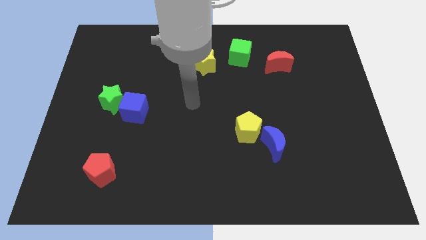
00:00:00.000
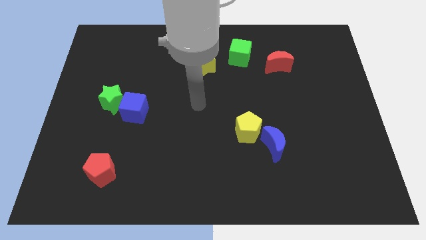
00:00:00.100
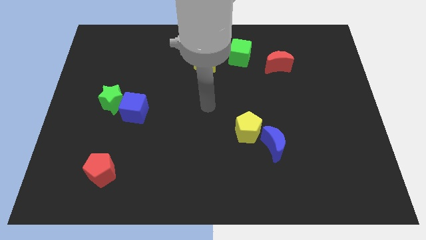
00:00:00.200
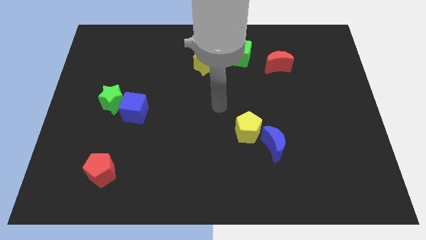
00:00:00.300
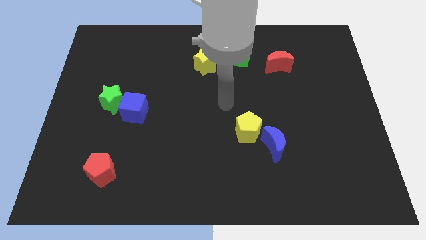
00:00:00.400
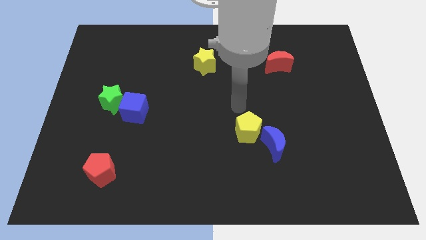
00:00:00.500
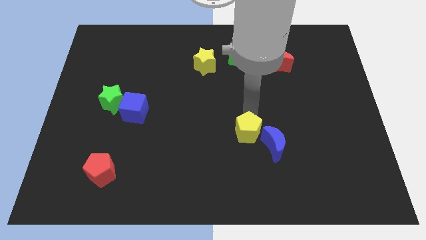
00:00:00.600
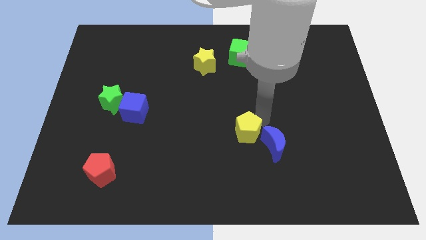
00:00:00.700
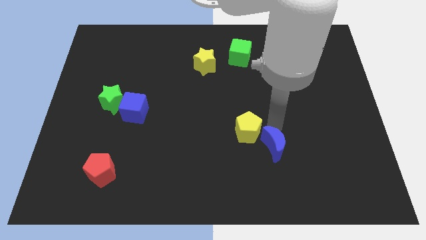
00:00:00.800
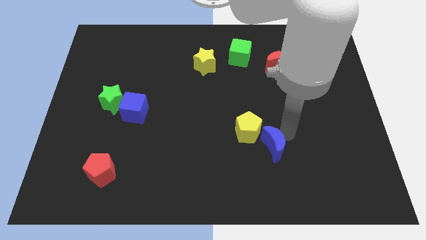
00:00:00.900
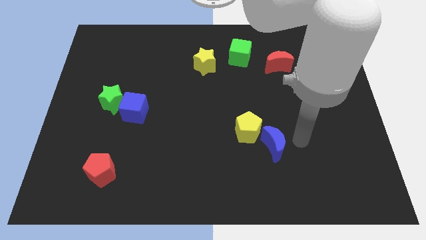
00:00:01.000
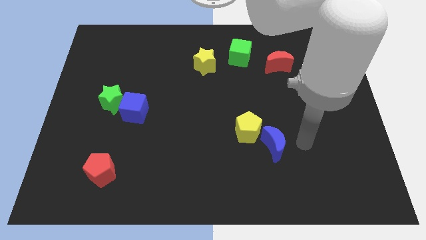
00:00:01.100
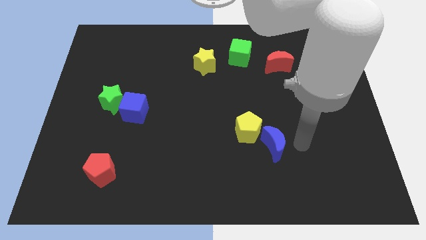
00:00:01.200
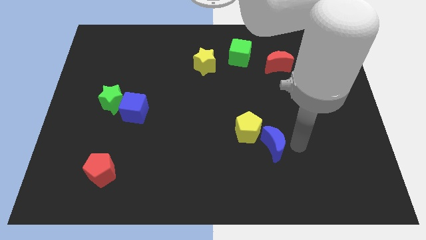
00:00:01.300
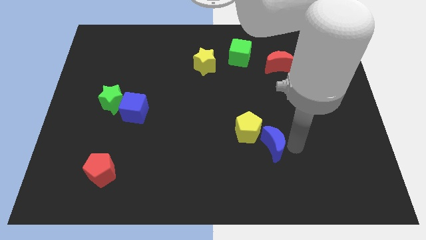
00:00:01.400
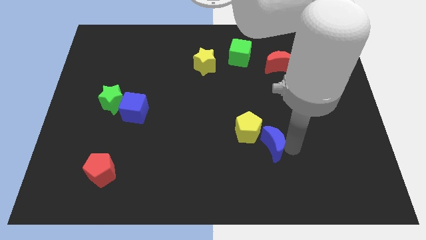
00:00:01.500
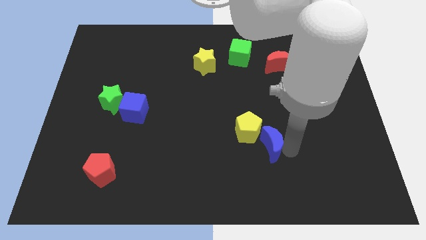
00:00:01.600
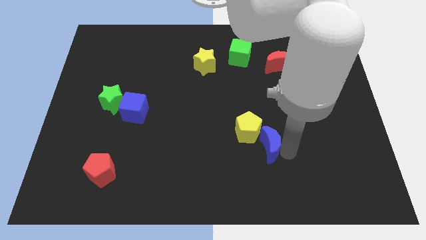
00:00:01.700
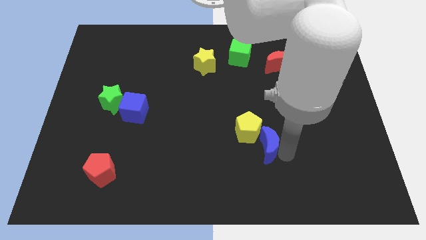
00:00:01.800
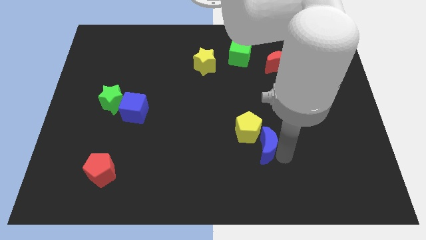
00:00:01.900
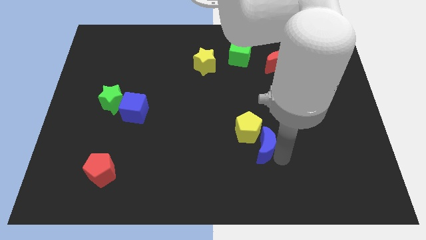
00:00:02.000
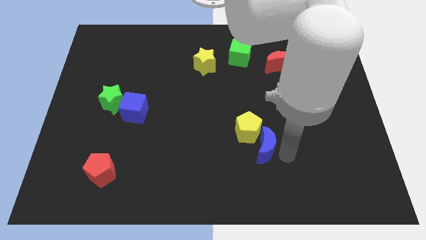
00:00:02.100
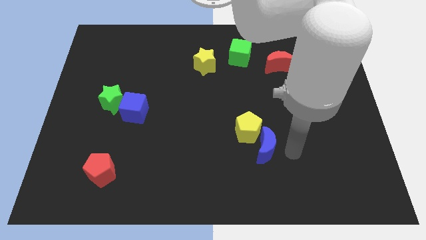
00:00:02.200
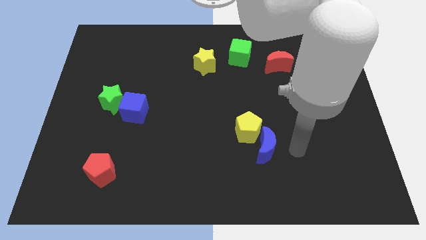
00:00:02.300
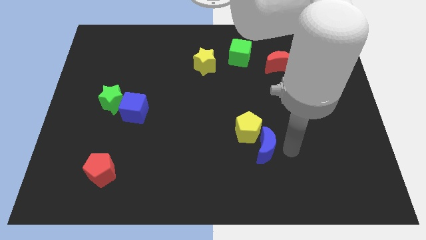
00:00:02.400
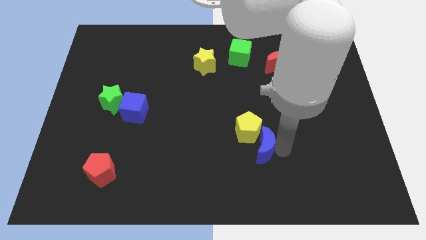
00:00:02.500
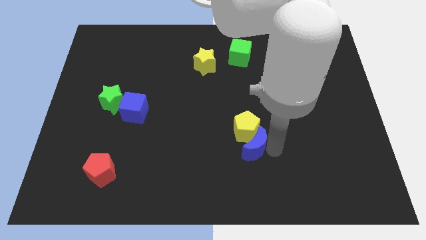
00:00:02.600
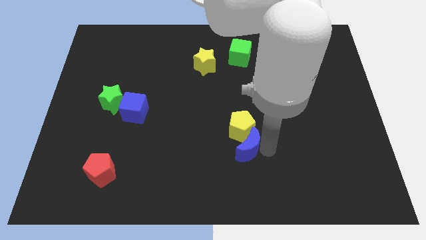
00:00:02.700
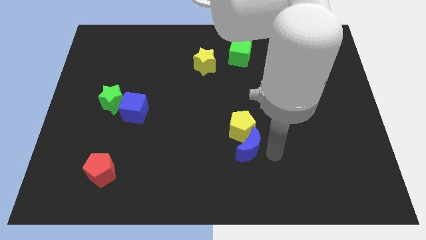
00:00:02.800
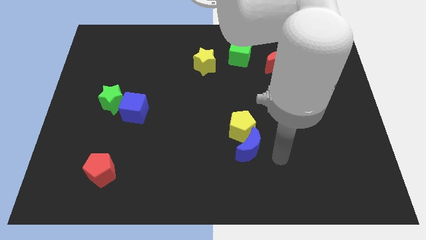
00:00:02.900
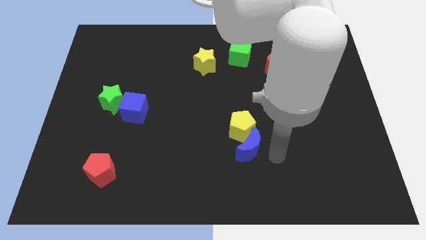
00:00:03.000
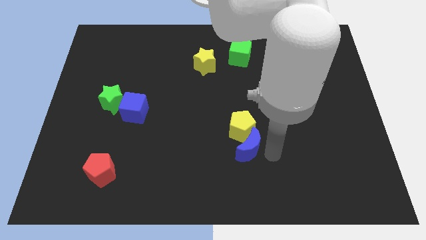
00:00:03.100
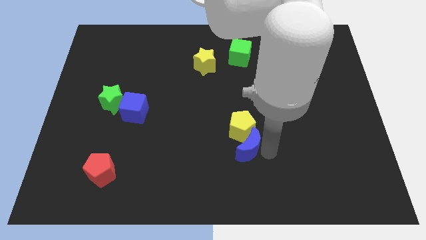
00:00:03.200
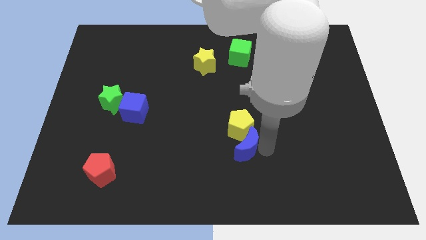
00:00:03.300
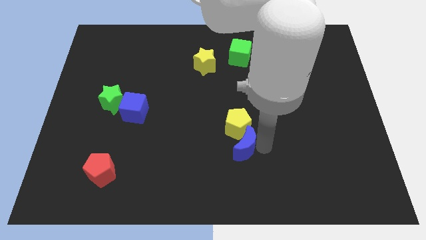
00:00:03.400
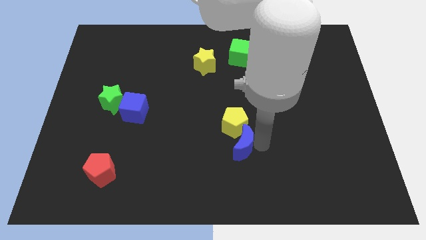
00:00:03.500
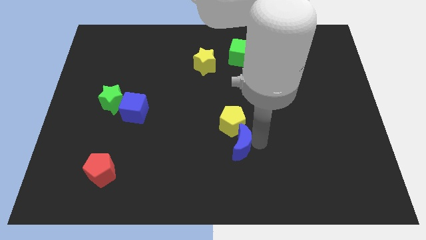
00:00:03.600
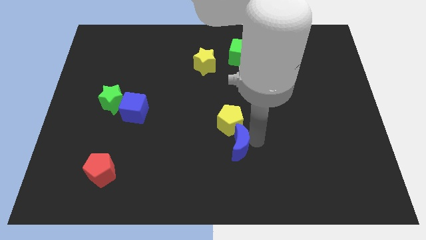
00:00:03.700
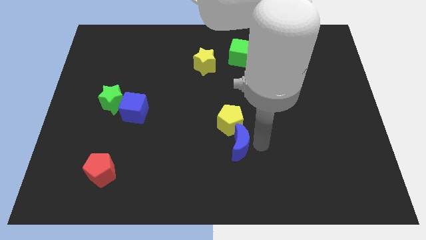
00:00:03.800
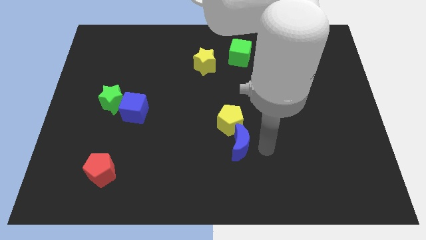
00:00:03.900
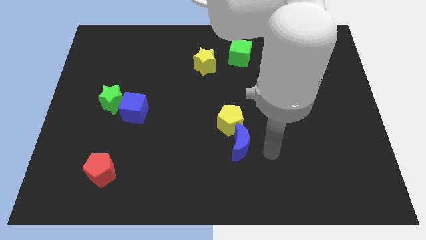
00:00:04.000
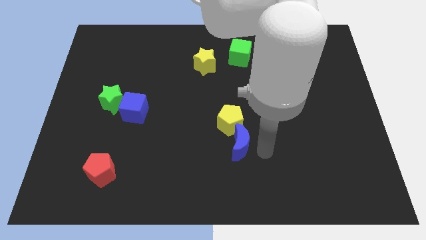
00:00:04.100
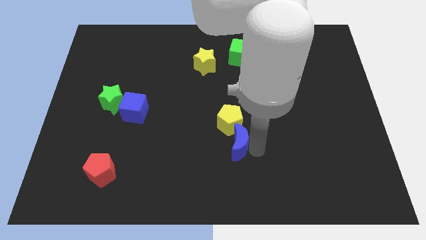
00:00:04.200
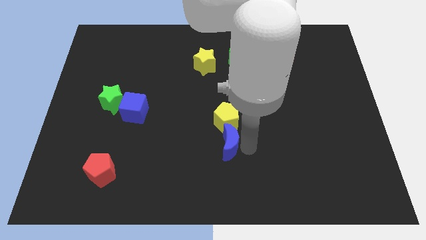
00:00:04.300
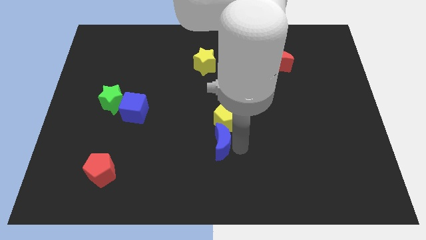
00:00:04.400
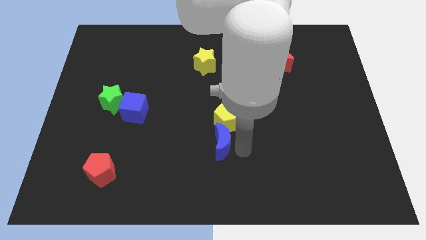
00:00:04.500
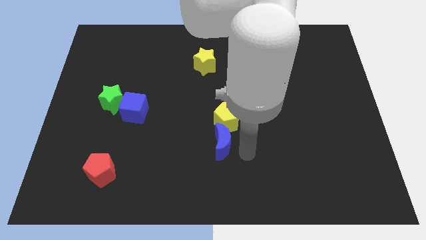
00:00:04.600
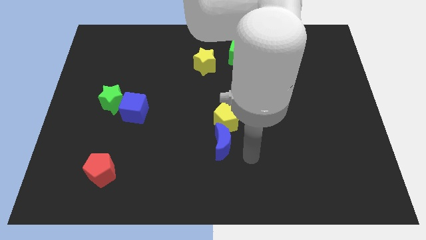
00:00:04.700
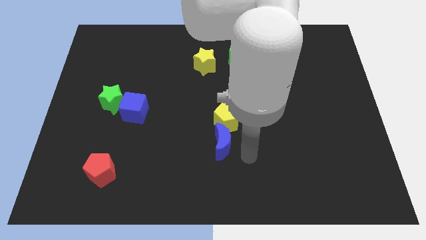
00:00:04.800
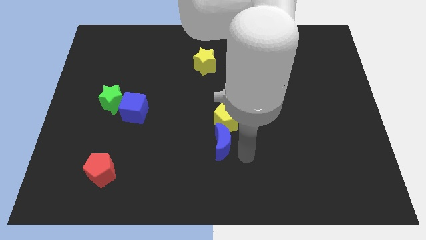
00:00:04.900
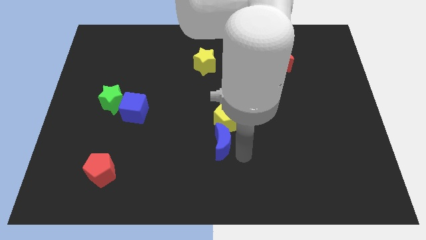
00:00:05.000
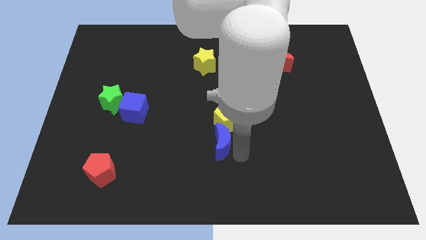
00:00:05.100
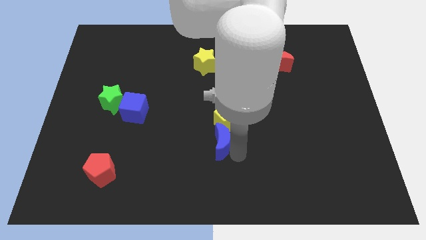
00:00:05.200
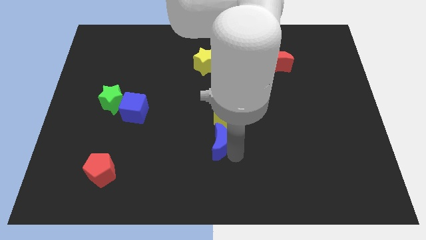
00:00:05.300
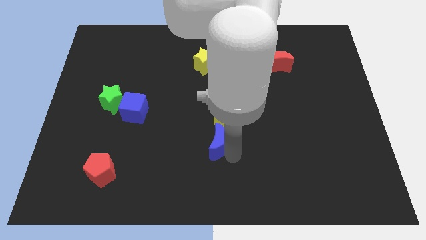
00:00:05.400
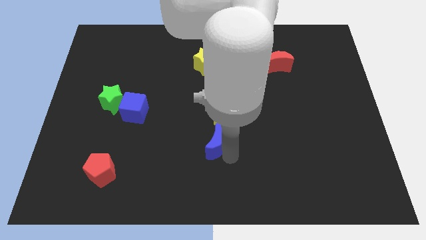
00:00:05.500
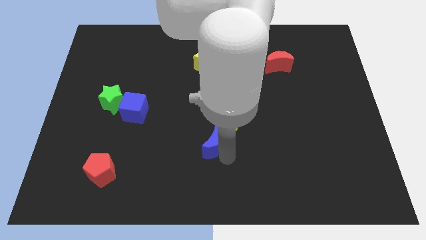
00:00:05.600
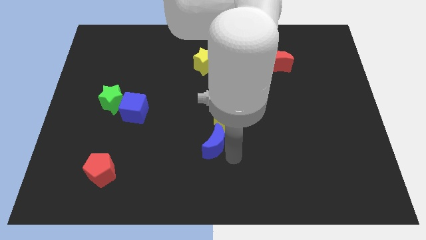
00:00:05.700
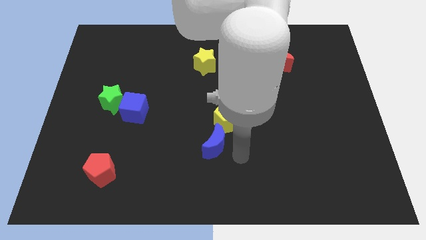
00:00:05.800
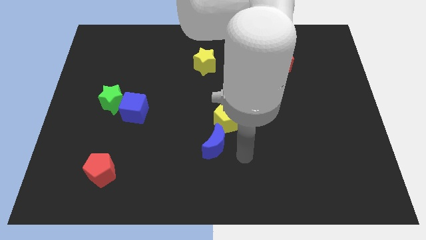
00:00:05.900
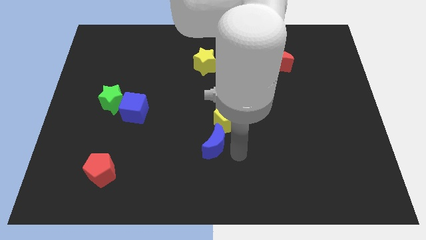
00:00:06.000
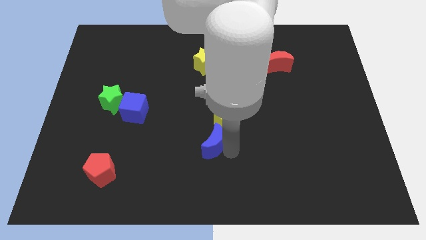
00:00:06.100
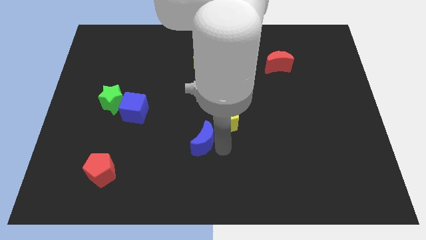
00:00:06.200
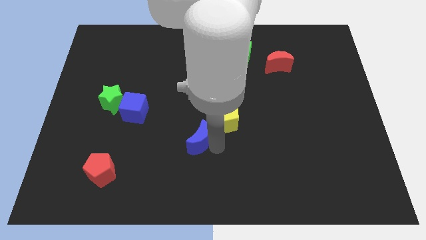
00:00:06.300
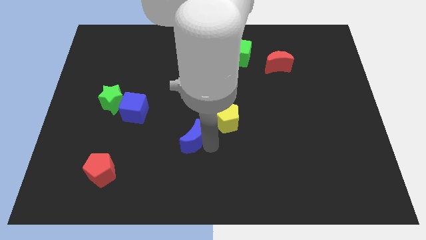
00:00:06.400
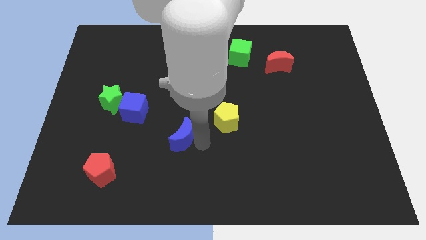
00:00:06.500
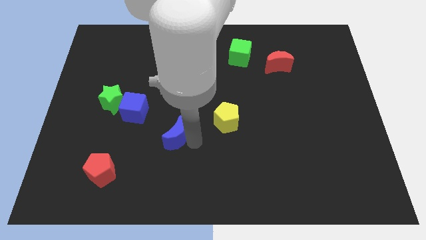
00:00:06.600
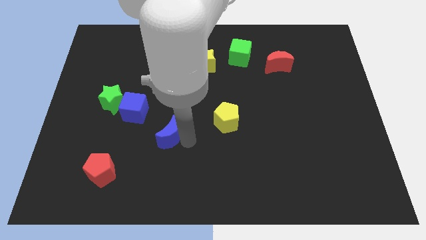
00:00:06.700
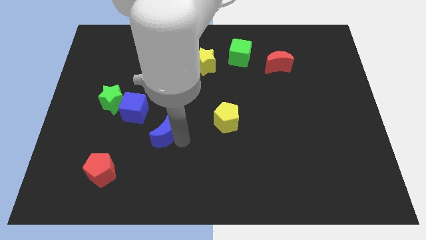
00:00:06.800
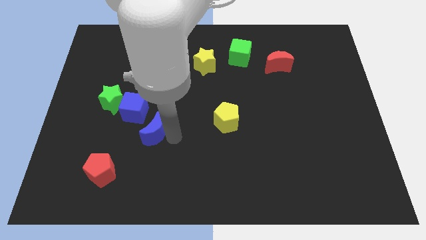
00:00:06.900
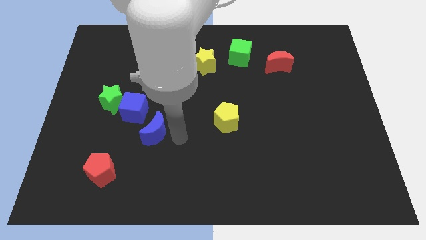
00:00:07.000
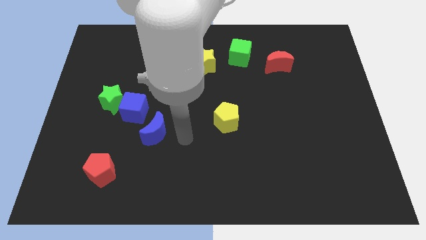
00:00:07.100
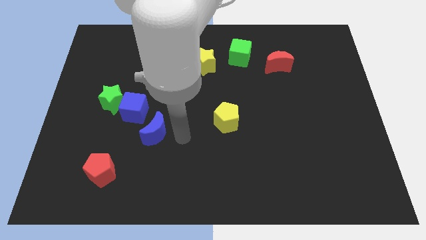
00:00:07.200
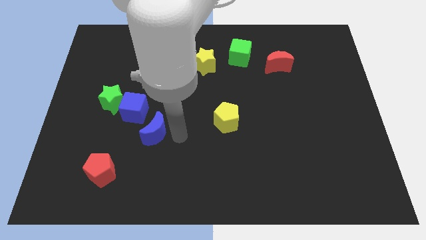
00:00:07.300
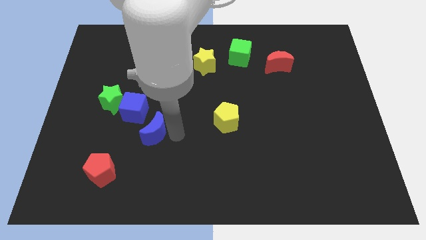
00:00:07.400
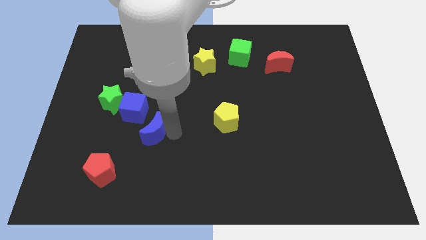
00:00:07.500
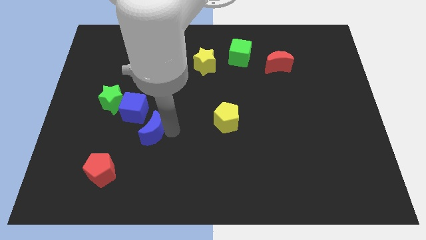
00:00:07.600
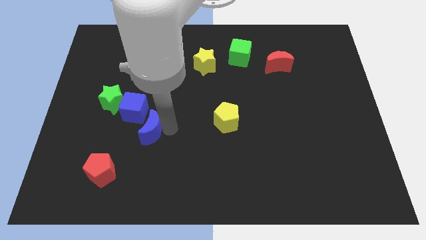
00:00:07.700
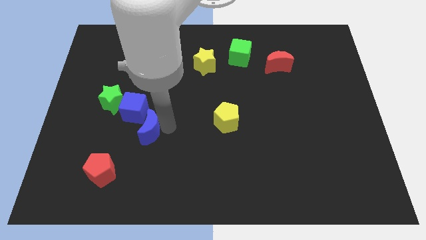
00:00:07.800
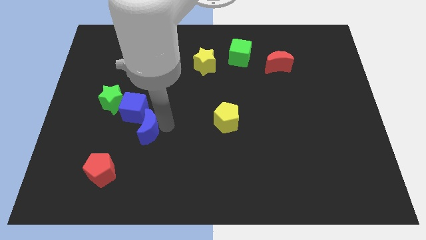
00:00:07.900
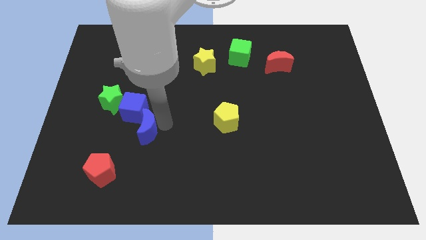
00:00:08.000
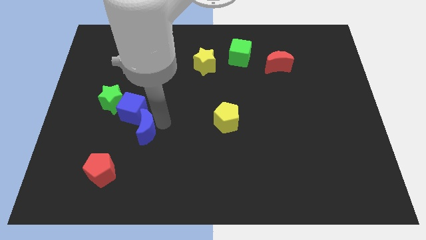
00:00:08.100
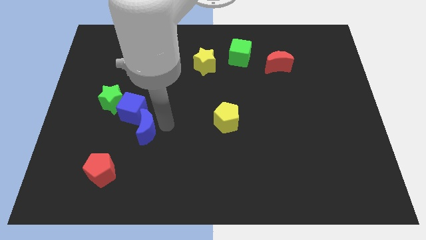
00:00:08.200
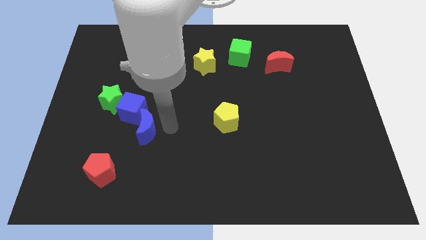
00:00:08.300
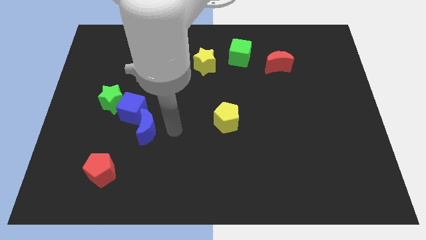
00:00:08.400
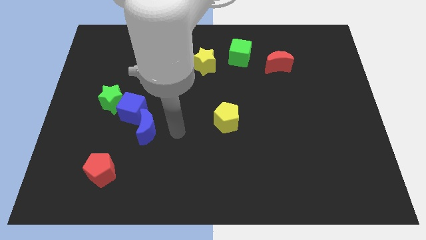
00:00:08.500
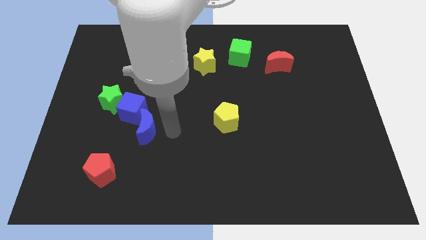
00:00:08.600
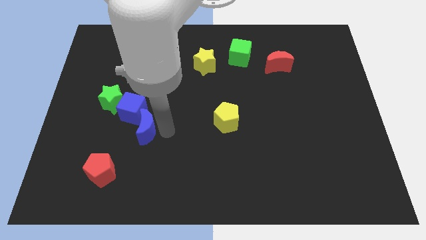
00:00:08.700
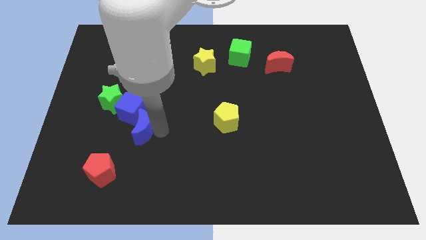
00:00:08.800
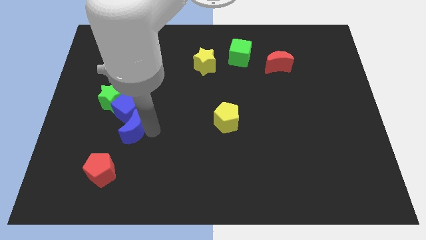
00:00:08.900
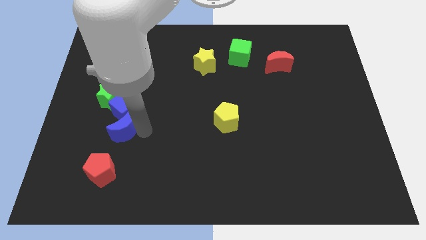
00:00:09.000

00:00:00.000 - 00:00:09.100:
move the blue moon above the red pentagon
